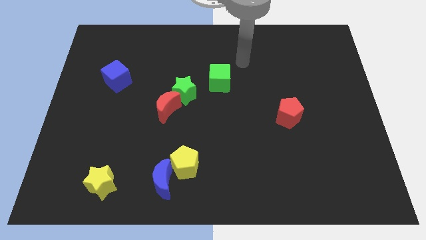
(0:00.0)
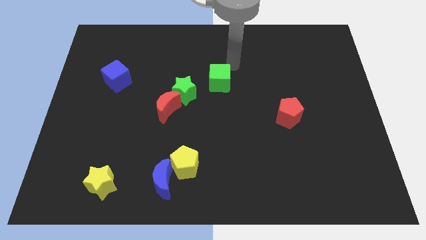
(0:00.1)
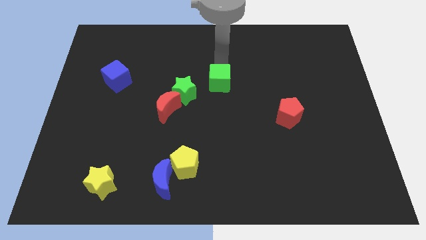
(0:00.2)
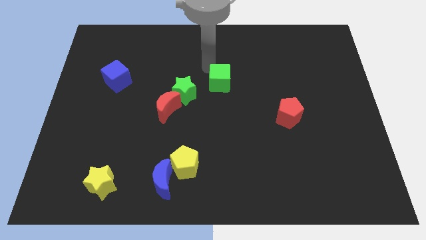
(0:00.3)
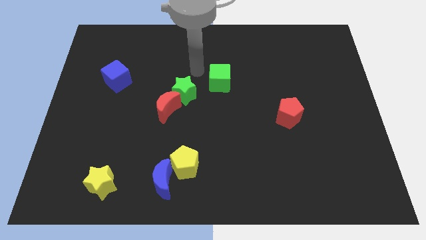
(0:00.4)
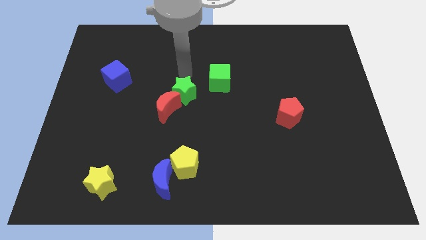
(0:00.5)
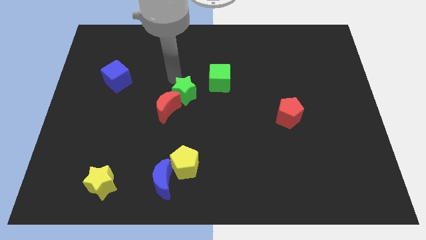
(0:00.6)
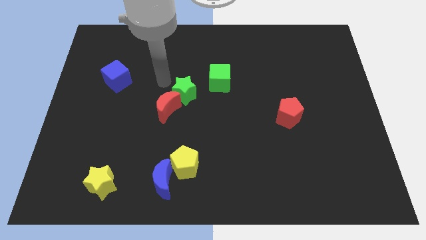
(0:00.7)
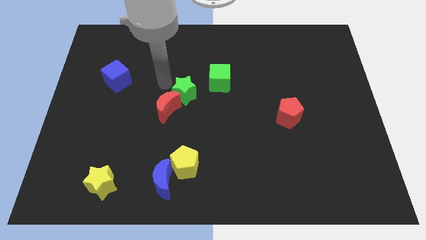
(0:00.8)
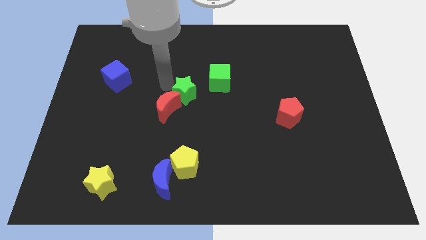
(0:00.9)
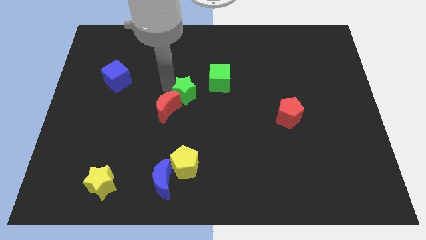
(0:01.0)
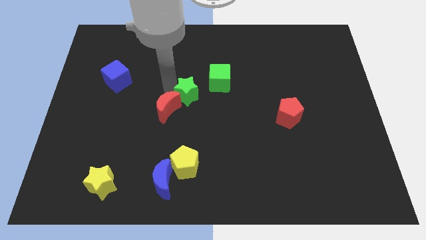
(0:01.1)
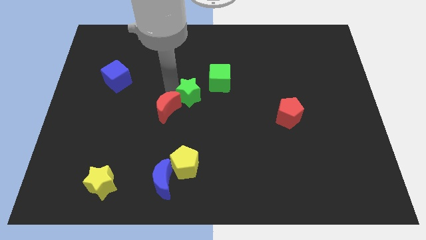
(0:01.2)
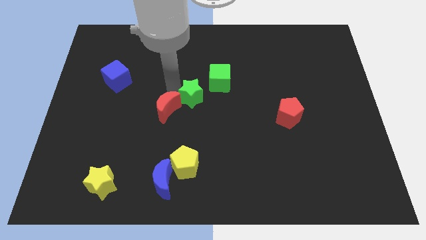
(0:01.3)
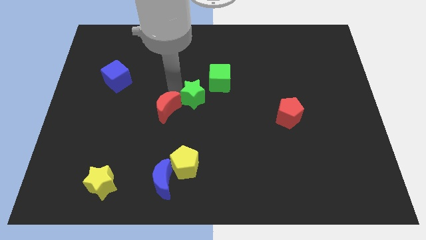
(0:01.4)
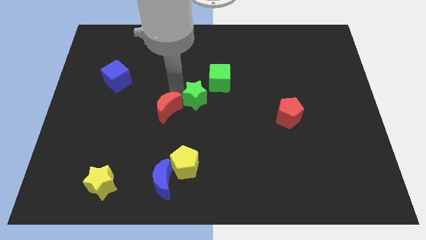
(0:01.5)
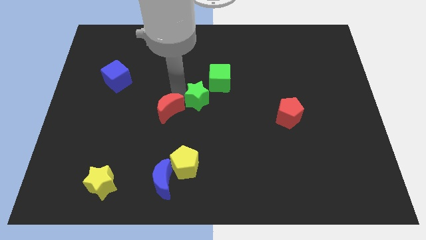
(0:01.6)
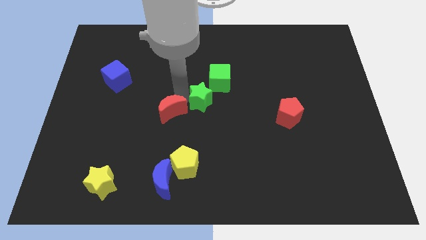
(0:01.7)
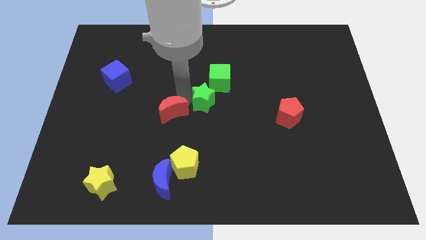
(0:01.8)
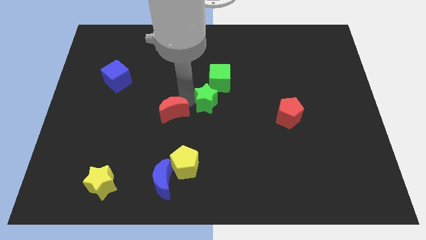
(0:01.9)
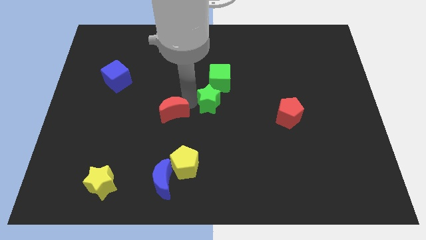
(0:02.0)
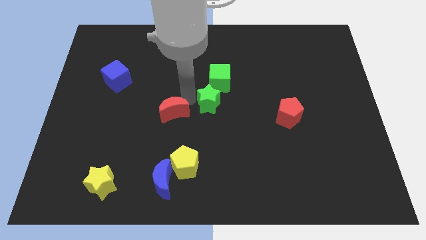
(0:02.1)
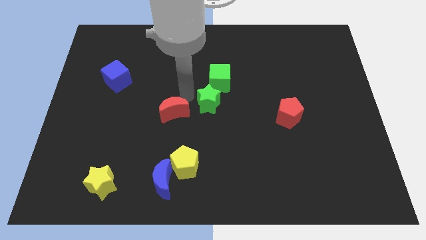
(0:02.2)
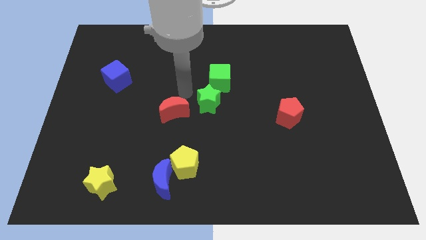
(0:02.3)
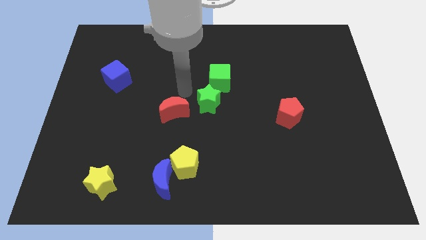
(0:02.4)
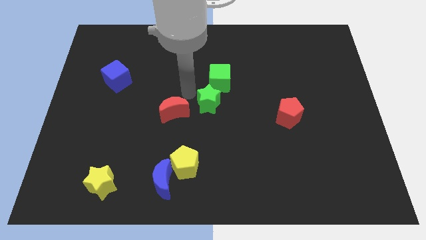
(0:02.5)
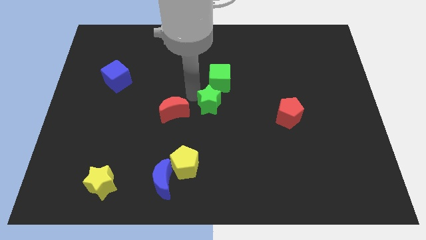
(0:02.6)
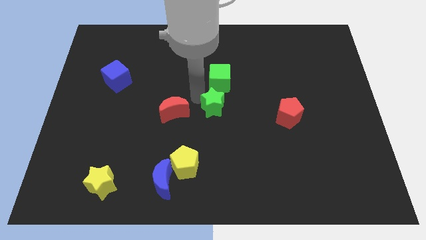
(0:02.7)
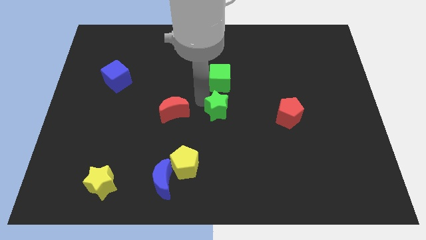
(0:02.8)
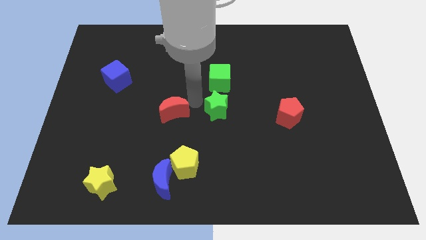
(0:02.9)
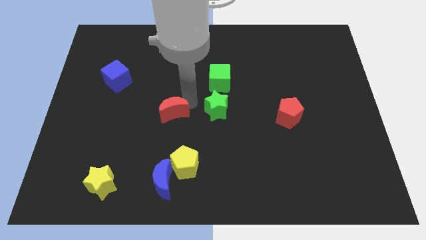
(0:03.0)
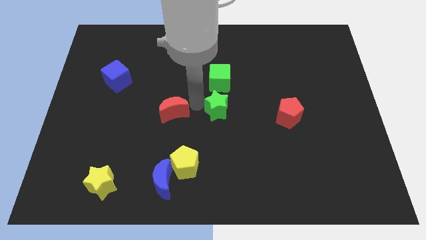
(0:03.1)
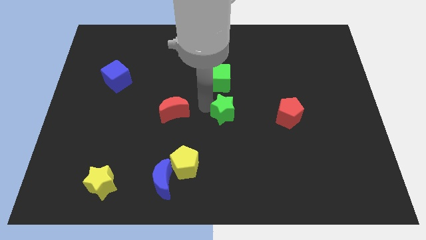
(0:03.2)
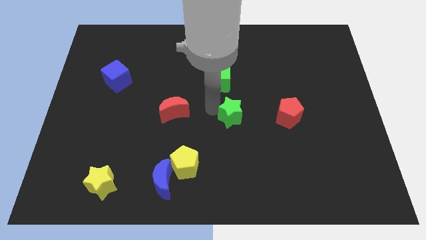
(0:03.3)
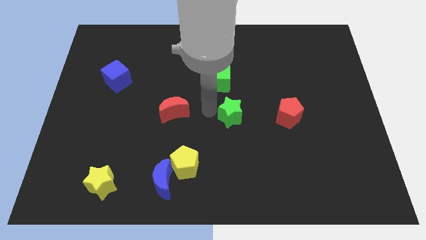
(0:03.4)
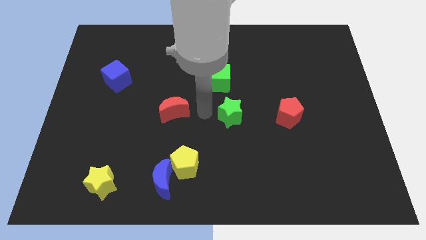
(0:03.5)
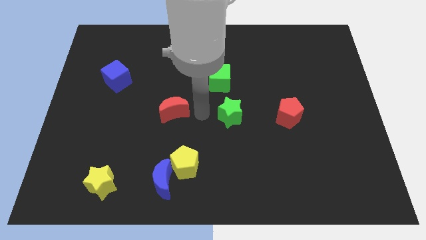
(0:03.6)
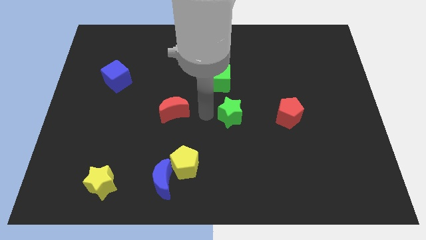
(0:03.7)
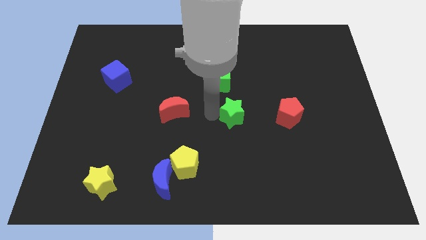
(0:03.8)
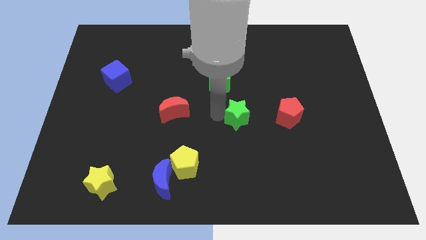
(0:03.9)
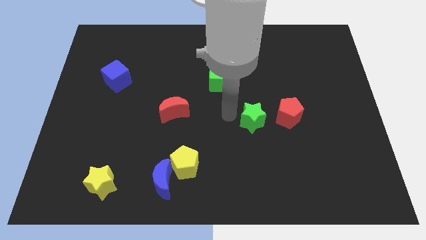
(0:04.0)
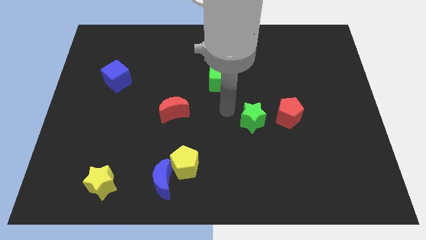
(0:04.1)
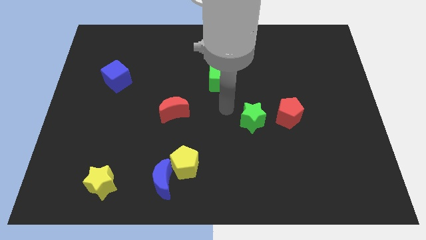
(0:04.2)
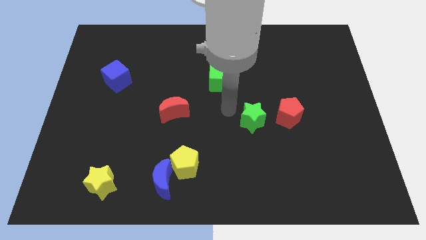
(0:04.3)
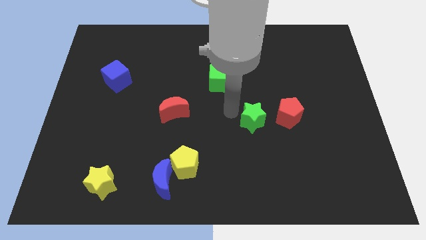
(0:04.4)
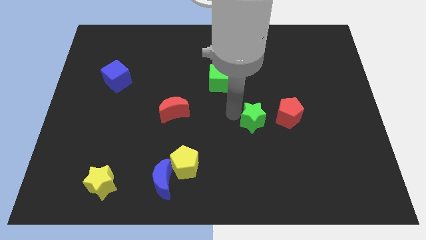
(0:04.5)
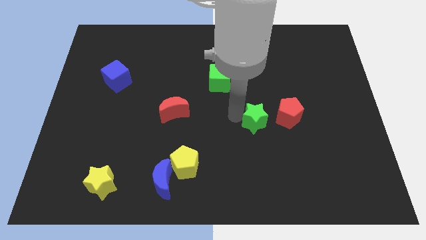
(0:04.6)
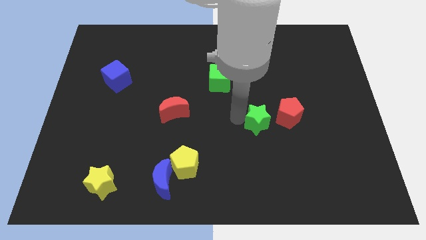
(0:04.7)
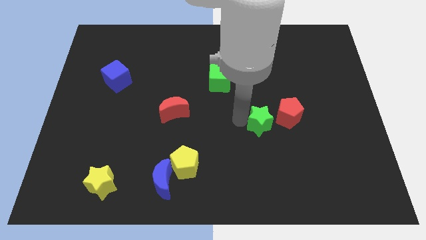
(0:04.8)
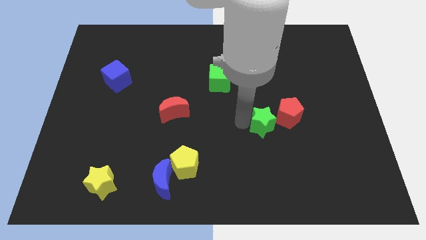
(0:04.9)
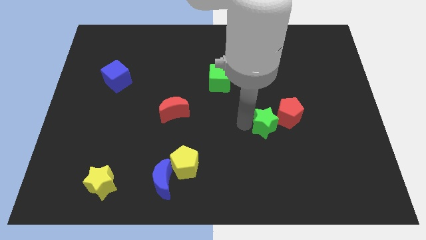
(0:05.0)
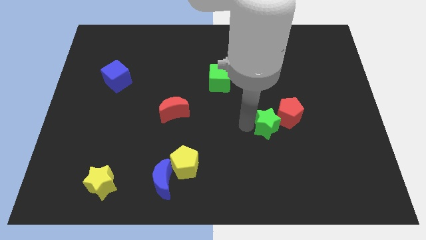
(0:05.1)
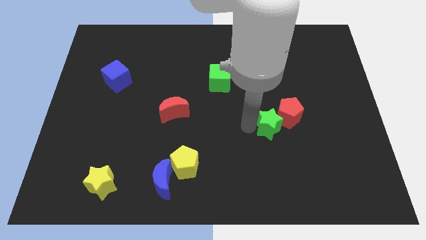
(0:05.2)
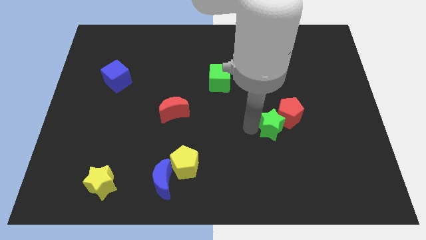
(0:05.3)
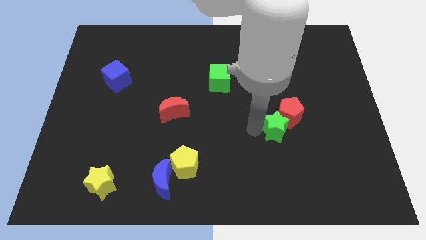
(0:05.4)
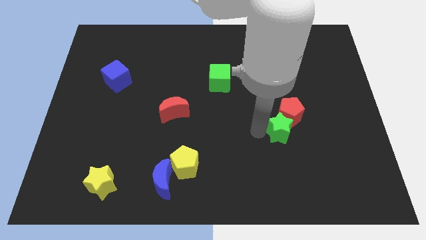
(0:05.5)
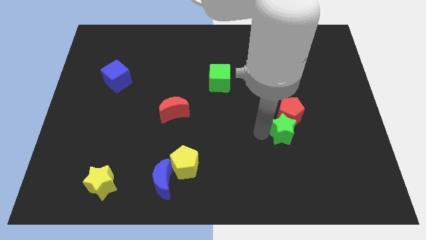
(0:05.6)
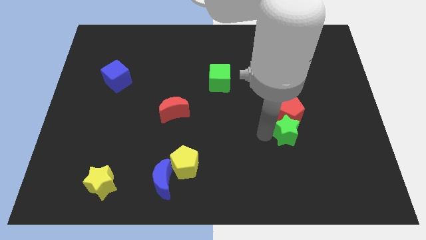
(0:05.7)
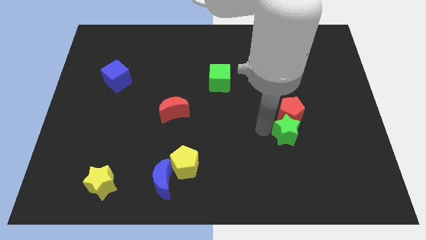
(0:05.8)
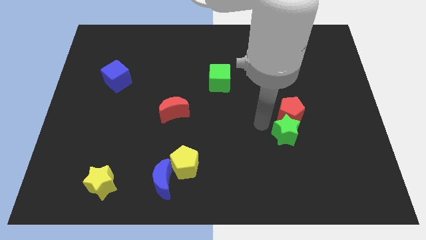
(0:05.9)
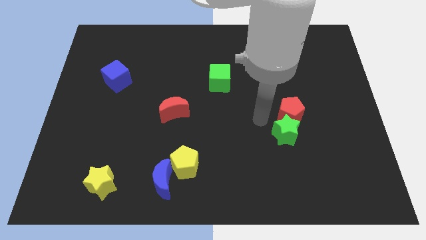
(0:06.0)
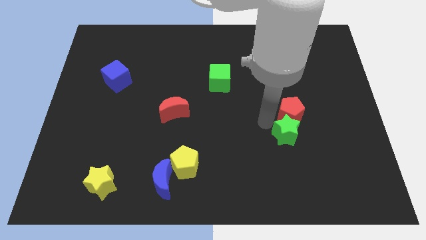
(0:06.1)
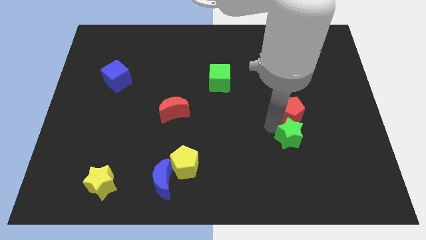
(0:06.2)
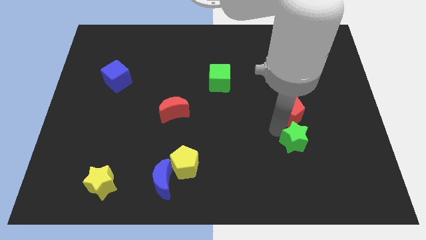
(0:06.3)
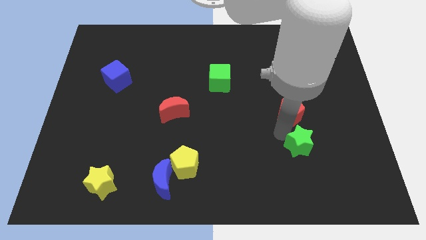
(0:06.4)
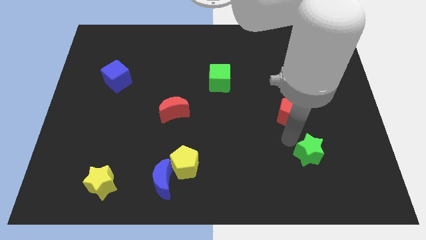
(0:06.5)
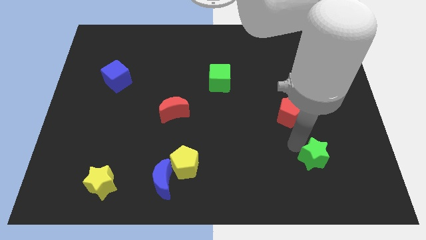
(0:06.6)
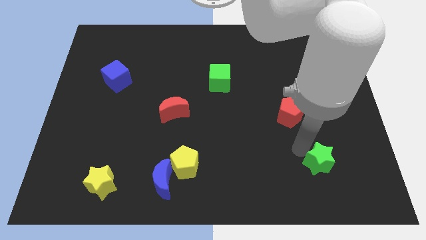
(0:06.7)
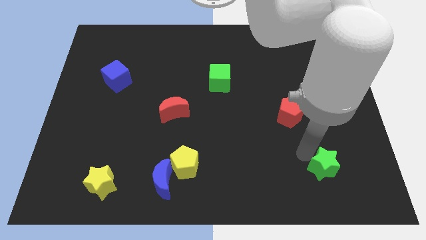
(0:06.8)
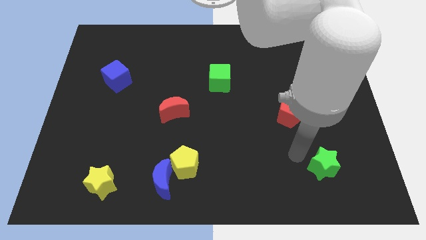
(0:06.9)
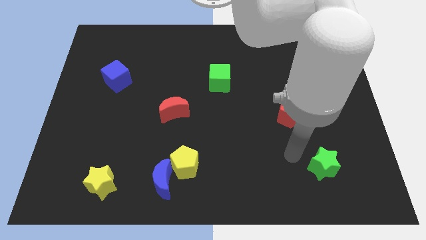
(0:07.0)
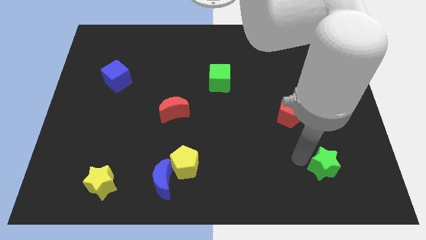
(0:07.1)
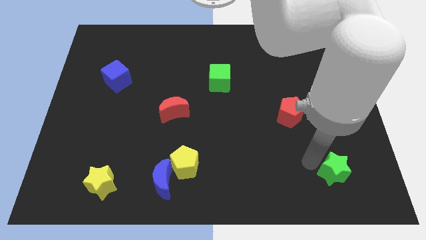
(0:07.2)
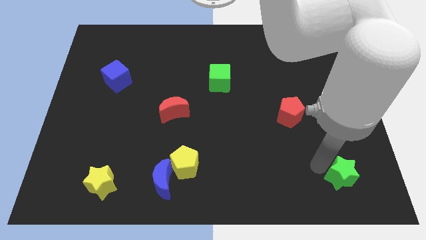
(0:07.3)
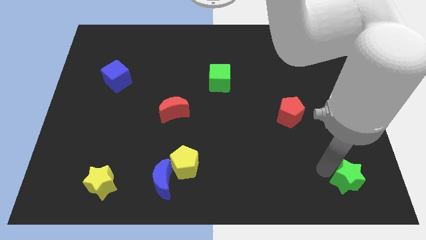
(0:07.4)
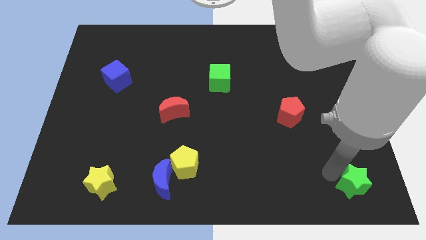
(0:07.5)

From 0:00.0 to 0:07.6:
push the green star to the bottom right corner
